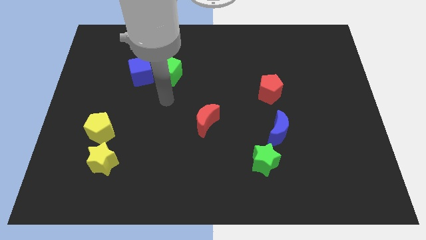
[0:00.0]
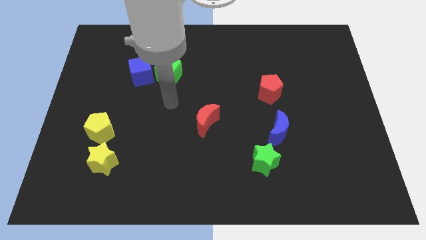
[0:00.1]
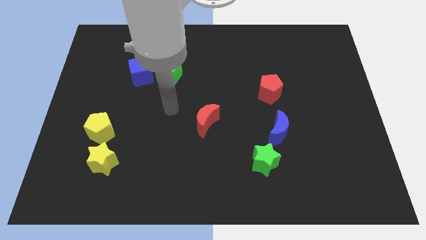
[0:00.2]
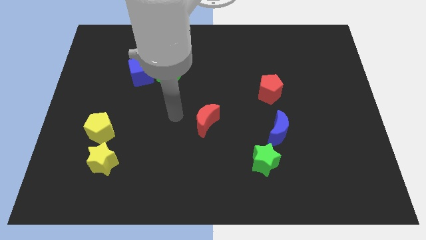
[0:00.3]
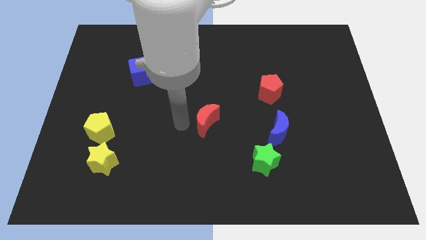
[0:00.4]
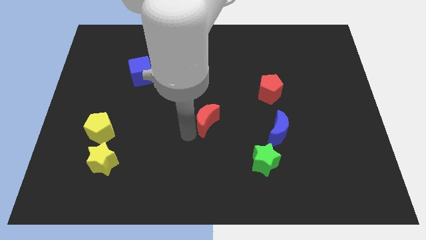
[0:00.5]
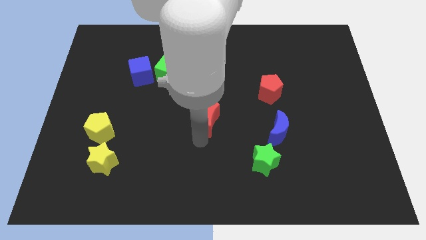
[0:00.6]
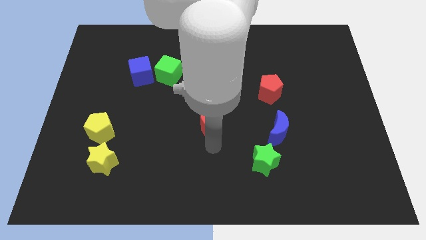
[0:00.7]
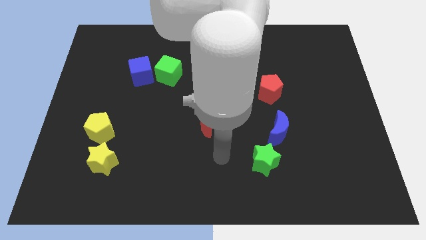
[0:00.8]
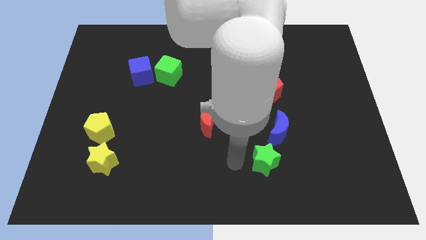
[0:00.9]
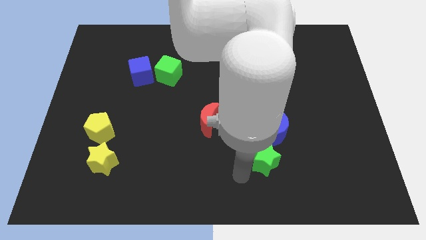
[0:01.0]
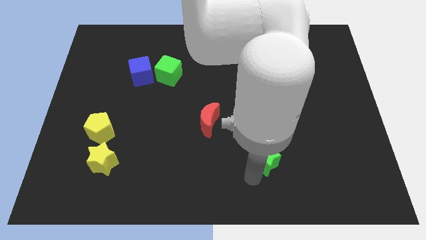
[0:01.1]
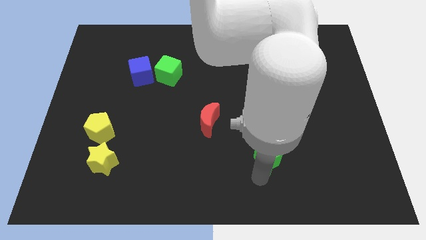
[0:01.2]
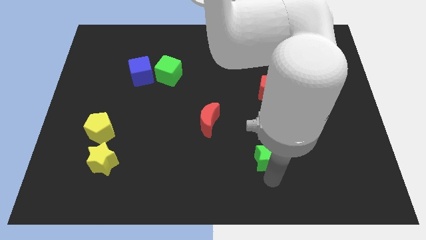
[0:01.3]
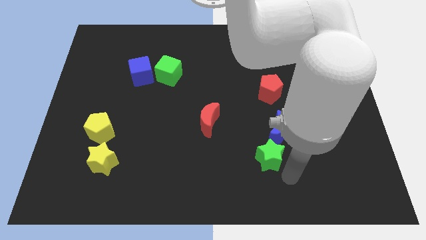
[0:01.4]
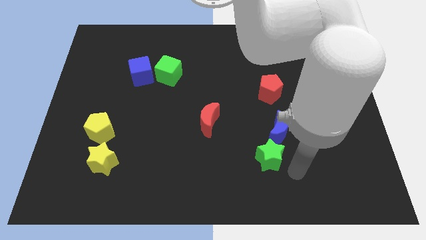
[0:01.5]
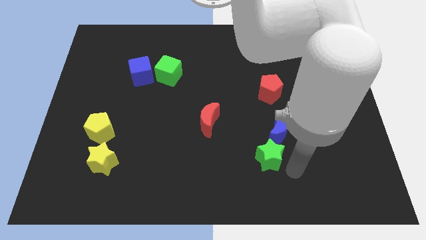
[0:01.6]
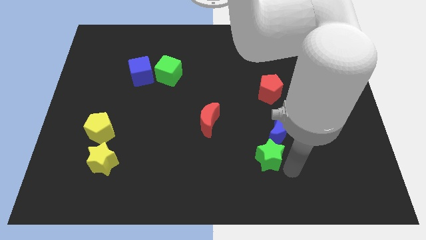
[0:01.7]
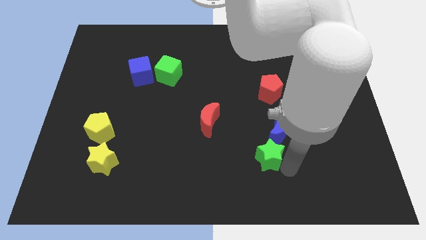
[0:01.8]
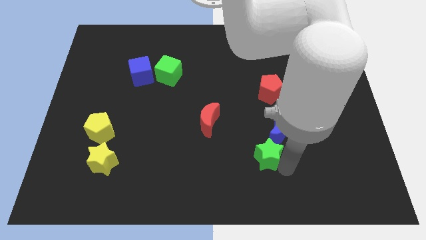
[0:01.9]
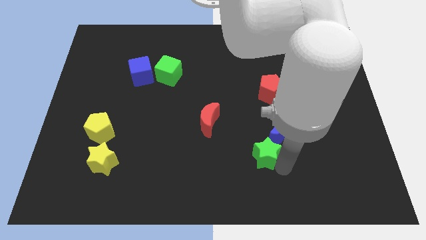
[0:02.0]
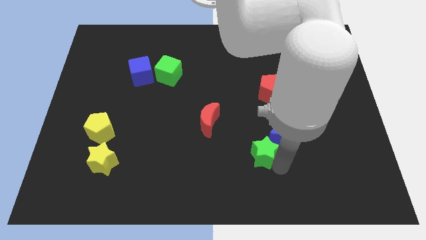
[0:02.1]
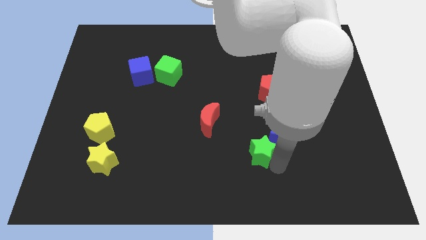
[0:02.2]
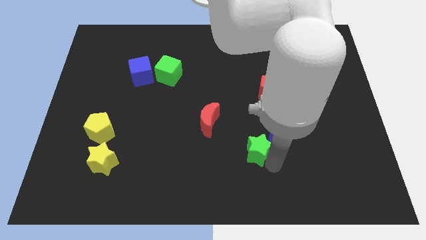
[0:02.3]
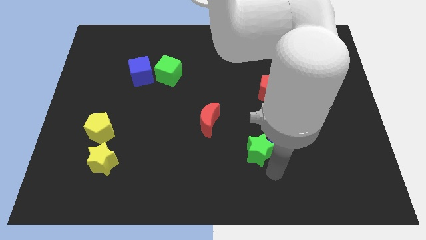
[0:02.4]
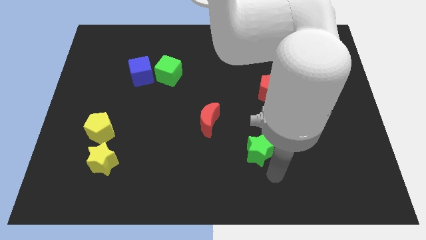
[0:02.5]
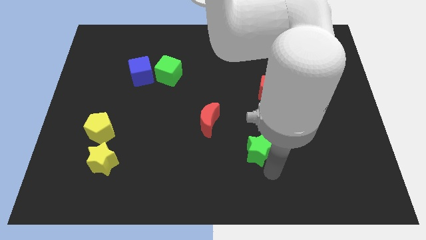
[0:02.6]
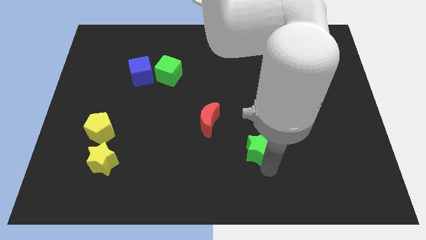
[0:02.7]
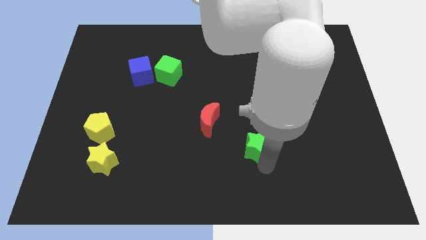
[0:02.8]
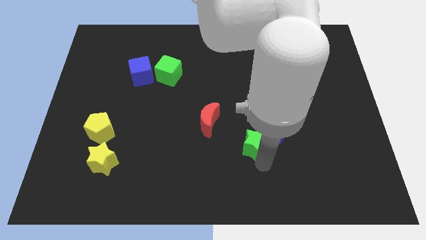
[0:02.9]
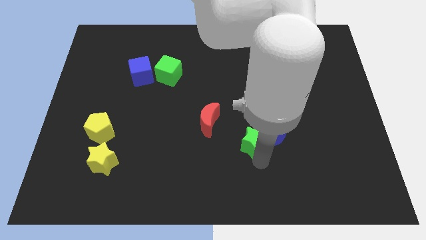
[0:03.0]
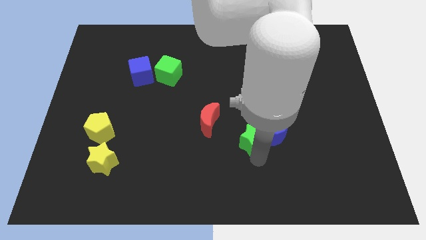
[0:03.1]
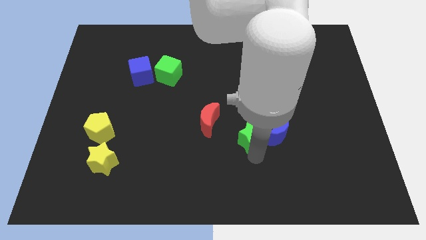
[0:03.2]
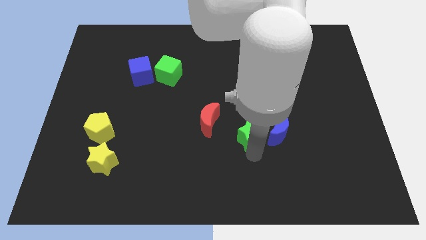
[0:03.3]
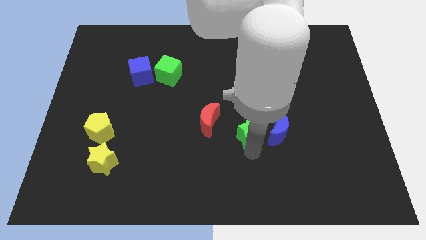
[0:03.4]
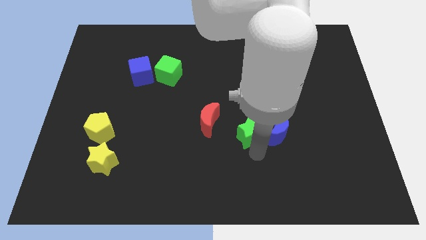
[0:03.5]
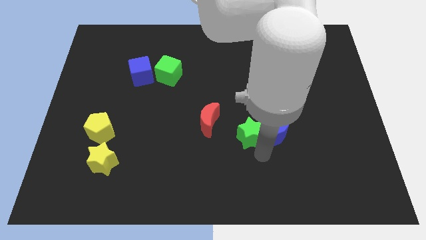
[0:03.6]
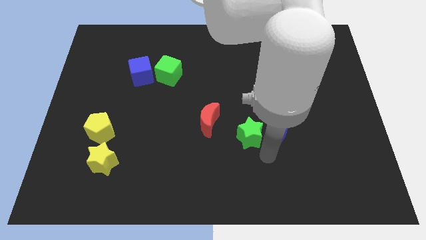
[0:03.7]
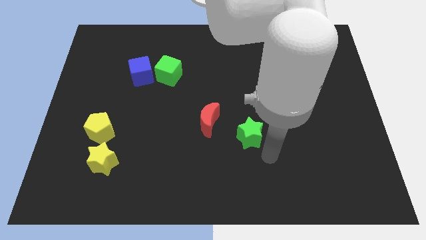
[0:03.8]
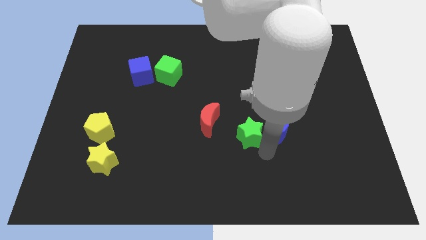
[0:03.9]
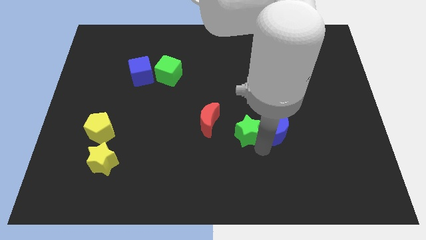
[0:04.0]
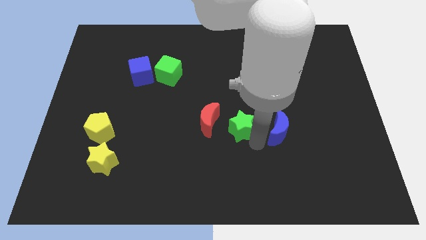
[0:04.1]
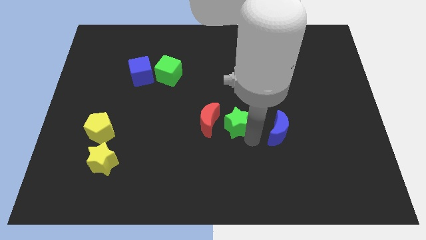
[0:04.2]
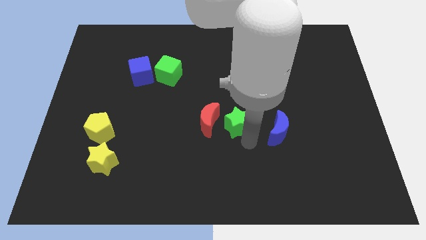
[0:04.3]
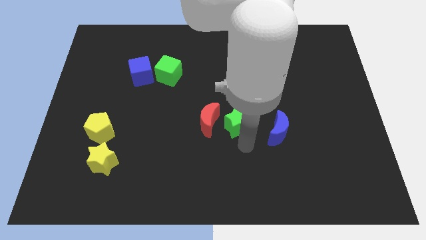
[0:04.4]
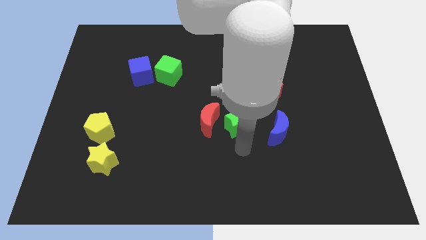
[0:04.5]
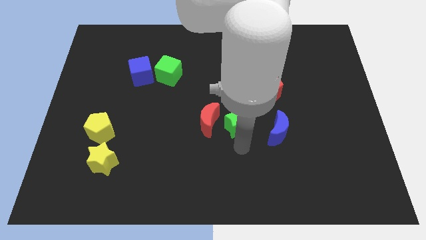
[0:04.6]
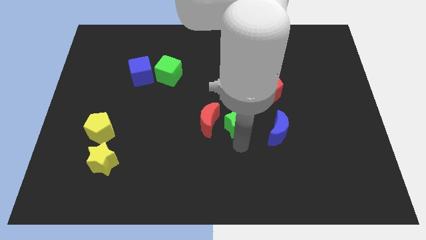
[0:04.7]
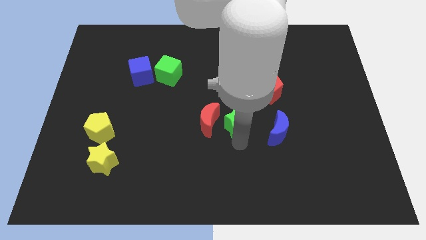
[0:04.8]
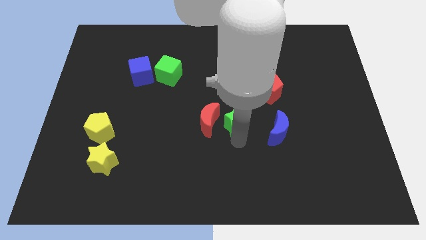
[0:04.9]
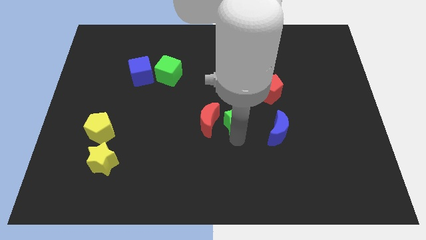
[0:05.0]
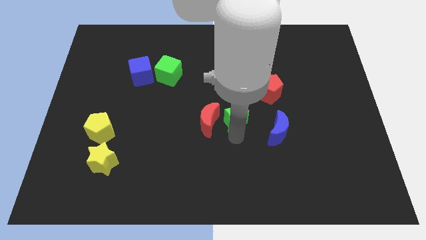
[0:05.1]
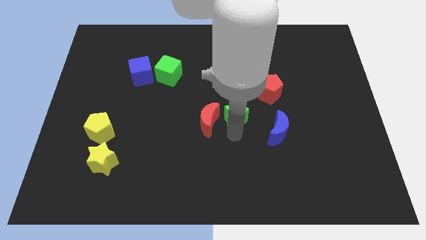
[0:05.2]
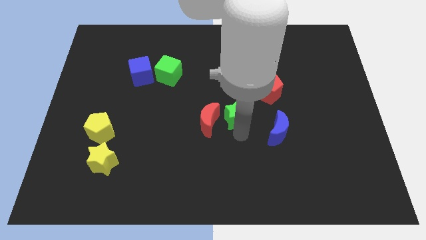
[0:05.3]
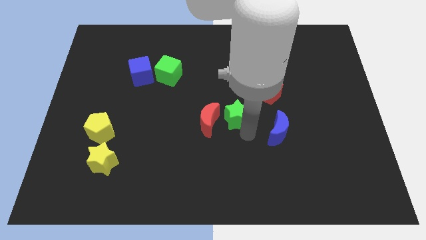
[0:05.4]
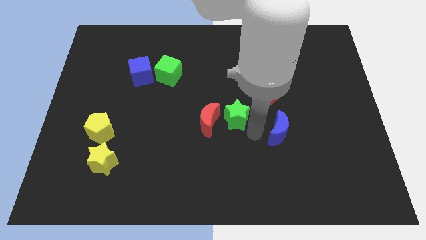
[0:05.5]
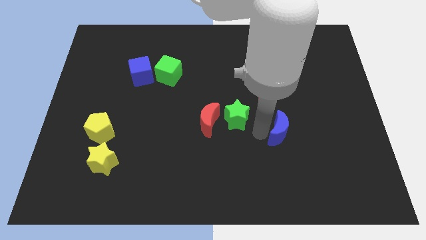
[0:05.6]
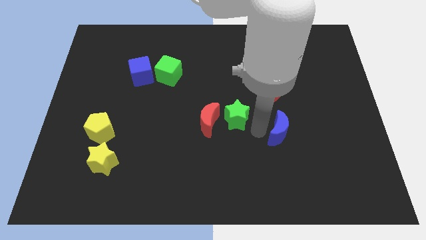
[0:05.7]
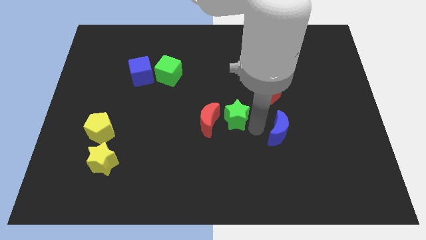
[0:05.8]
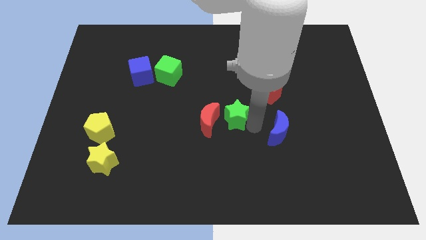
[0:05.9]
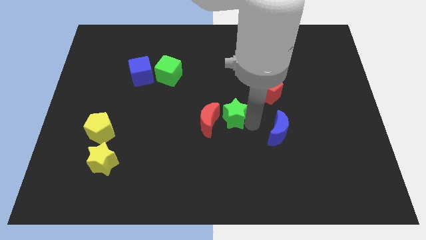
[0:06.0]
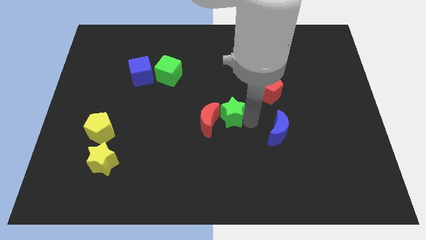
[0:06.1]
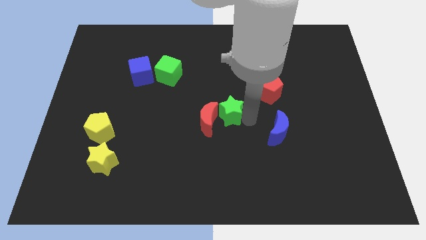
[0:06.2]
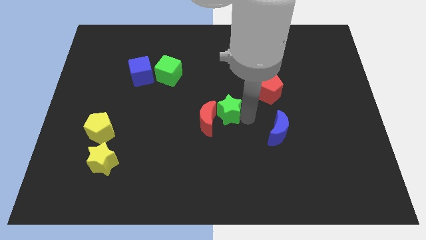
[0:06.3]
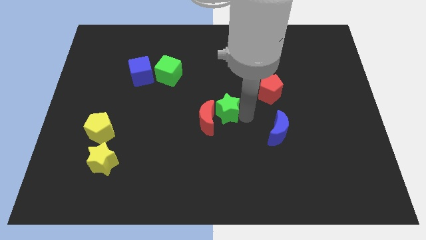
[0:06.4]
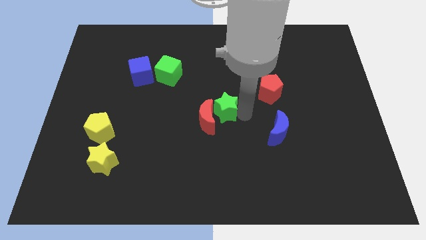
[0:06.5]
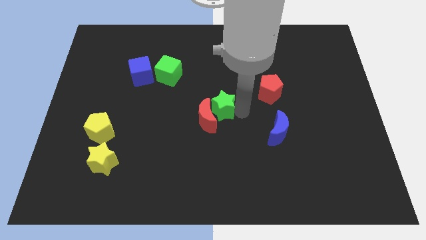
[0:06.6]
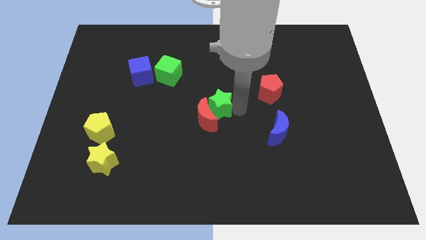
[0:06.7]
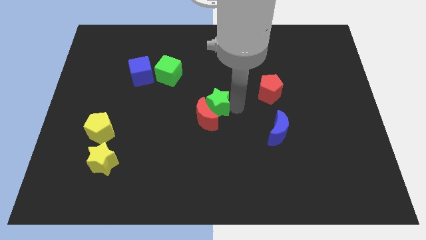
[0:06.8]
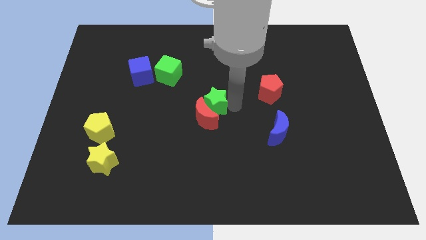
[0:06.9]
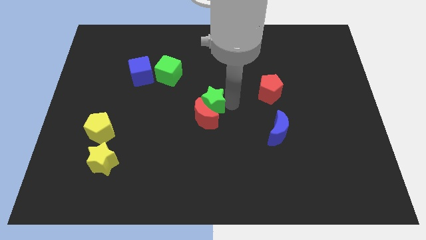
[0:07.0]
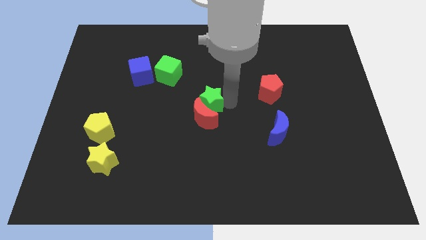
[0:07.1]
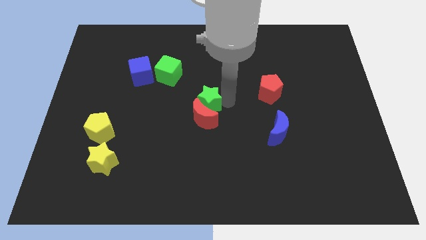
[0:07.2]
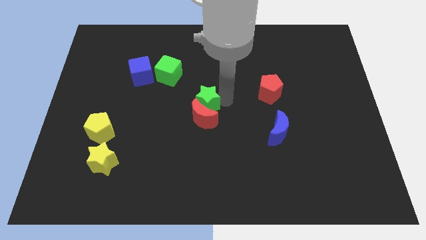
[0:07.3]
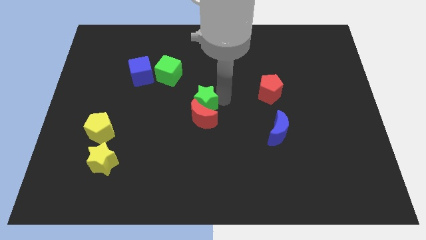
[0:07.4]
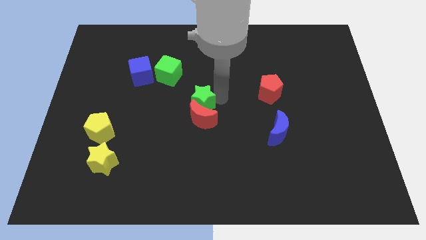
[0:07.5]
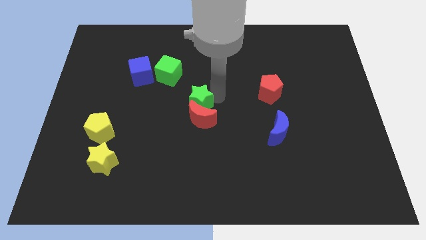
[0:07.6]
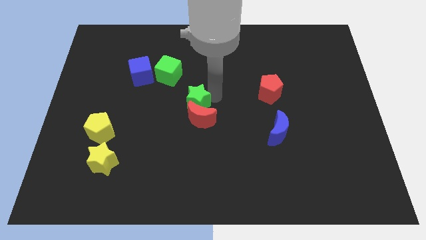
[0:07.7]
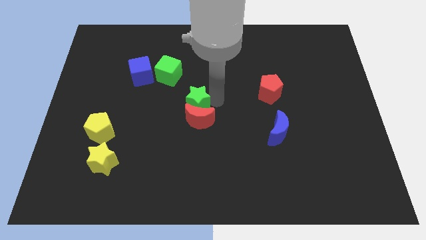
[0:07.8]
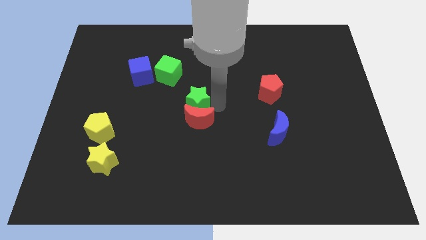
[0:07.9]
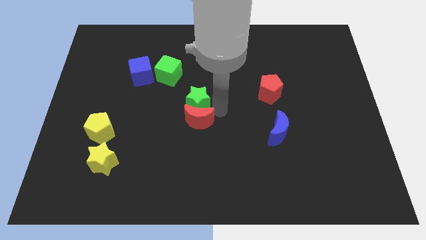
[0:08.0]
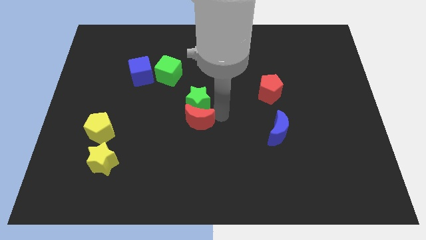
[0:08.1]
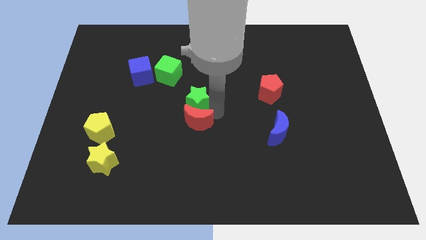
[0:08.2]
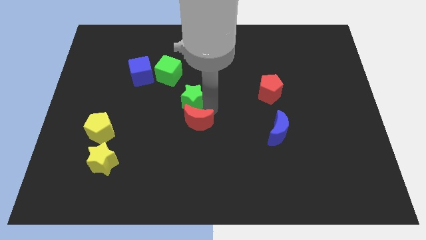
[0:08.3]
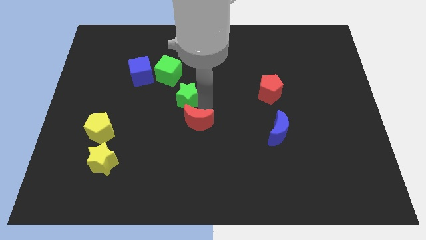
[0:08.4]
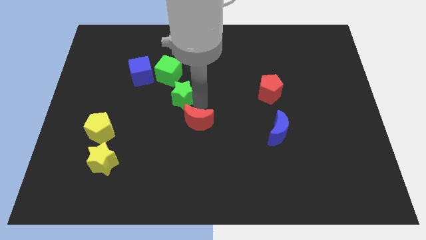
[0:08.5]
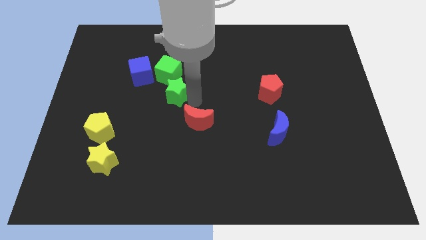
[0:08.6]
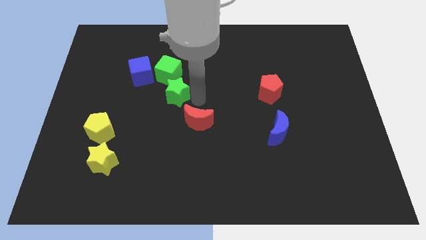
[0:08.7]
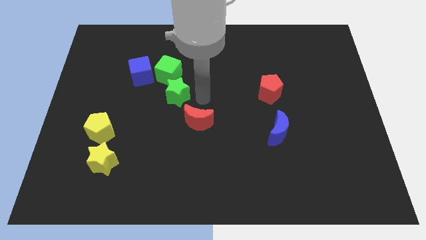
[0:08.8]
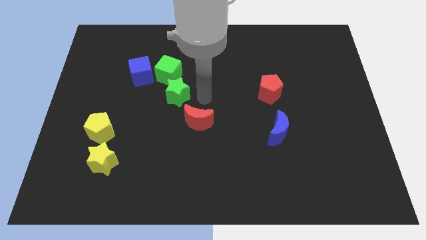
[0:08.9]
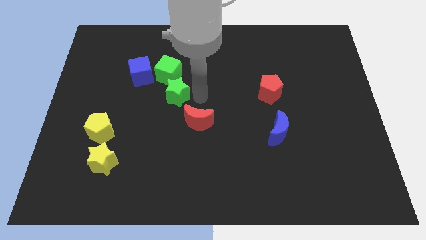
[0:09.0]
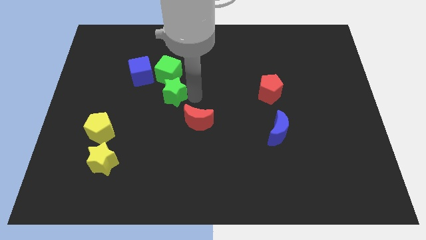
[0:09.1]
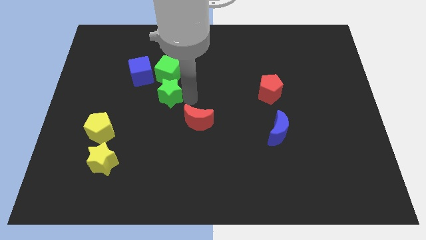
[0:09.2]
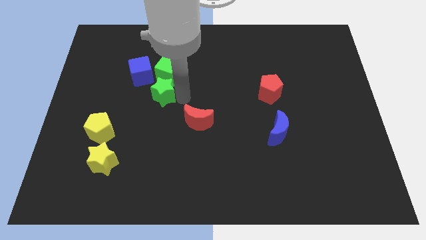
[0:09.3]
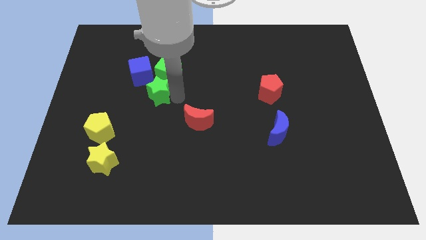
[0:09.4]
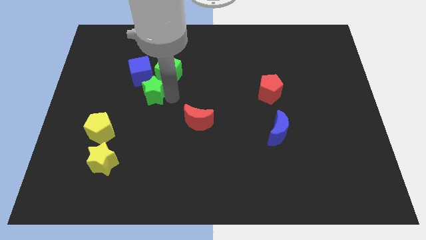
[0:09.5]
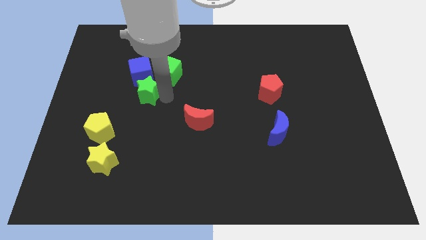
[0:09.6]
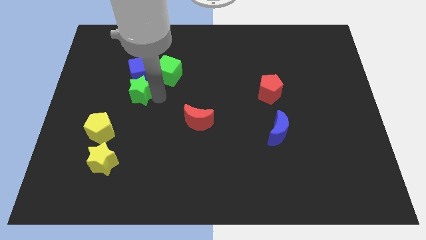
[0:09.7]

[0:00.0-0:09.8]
move the green star to the blue cube
